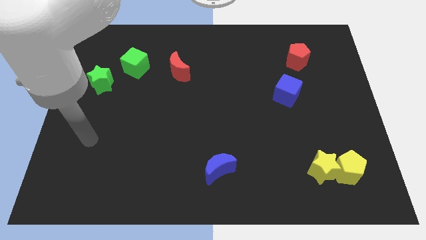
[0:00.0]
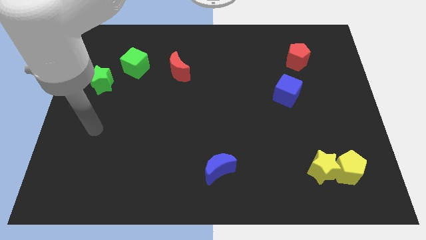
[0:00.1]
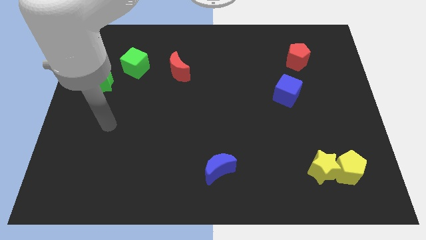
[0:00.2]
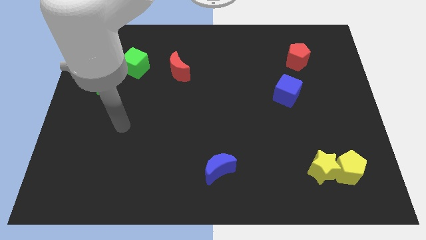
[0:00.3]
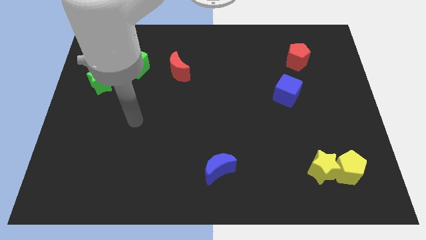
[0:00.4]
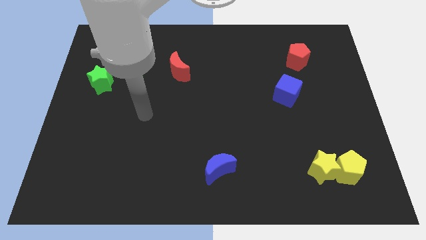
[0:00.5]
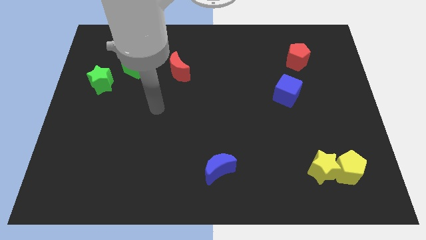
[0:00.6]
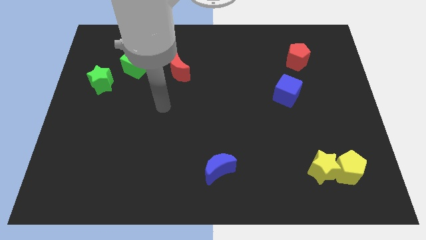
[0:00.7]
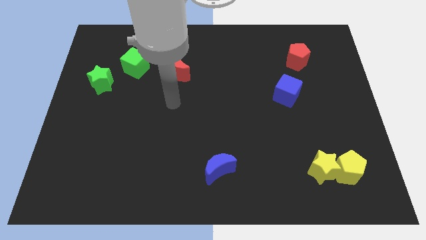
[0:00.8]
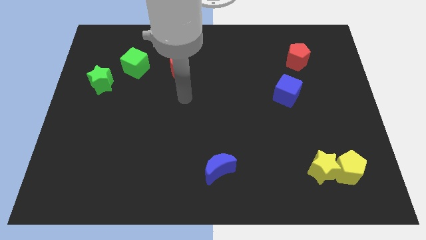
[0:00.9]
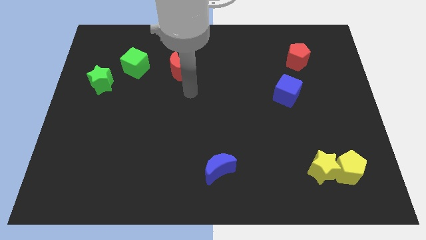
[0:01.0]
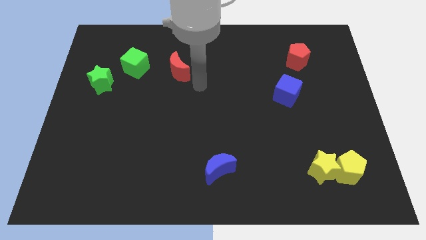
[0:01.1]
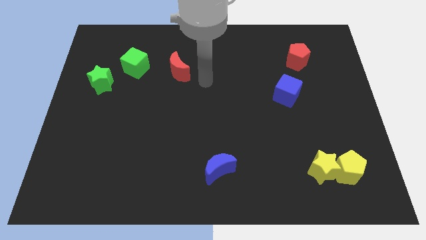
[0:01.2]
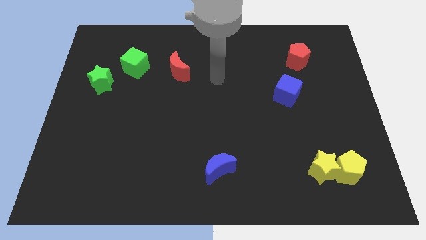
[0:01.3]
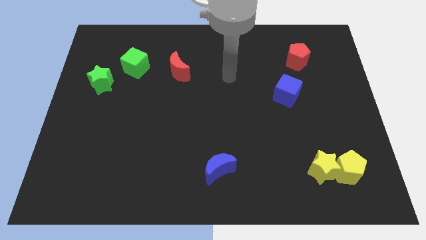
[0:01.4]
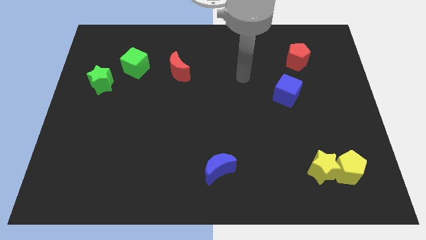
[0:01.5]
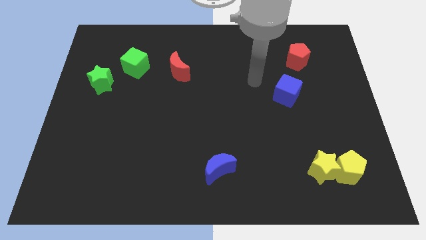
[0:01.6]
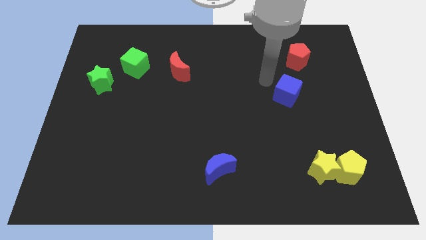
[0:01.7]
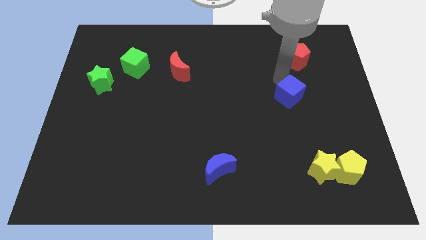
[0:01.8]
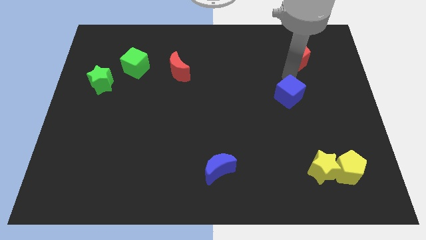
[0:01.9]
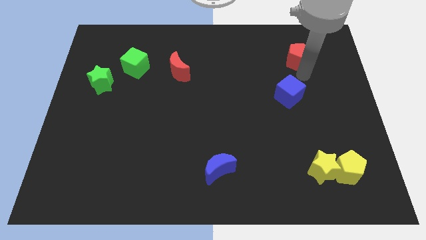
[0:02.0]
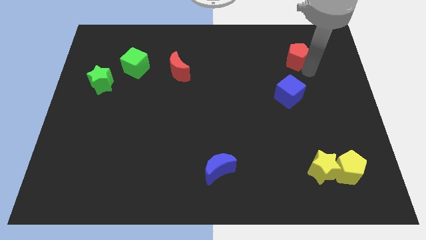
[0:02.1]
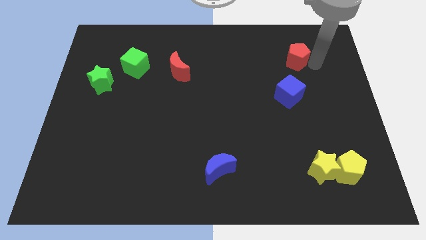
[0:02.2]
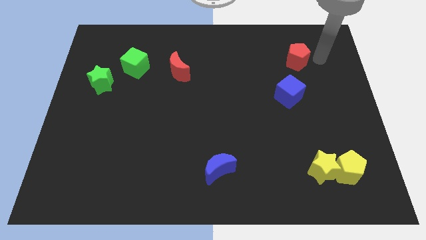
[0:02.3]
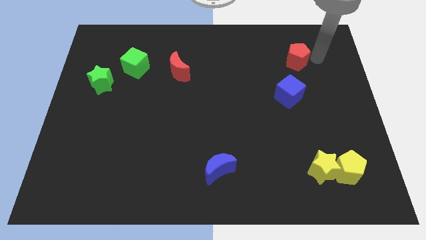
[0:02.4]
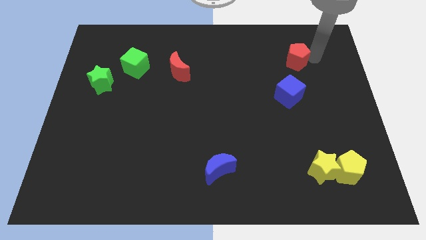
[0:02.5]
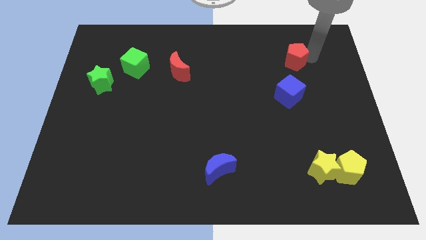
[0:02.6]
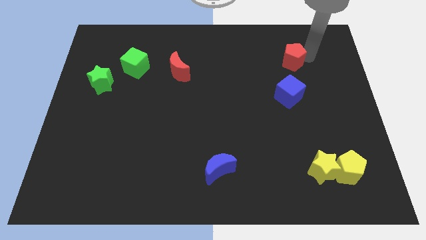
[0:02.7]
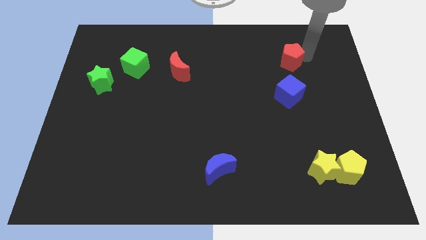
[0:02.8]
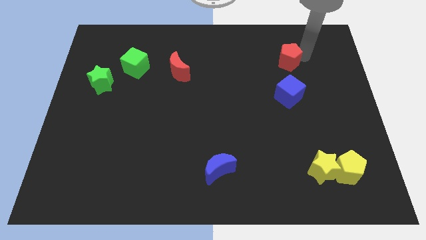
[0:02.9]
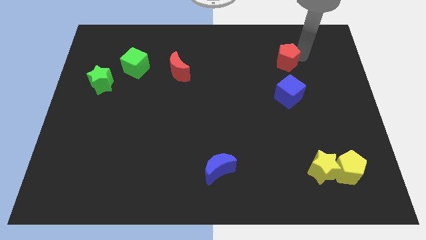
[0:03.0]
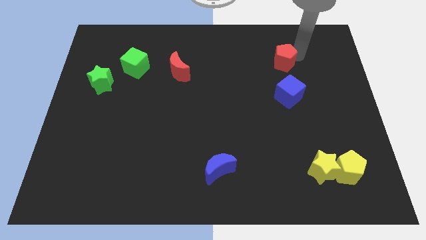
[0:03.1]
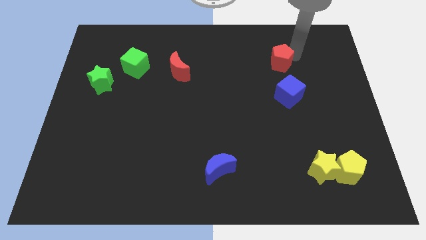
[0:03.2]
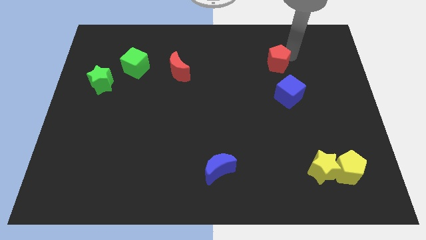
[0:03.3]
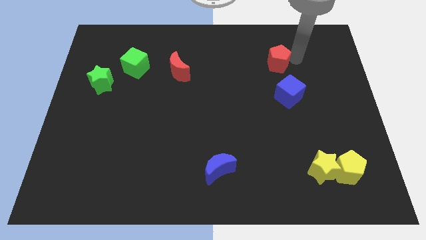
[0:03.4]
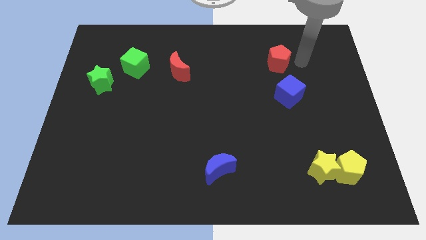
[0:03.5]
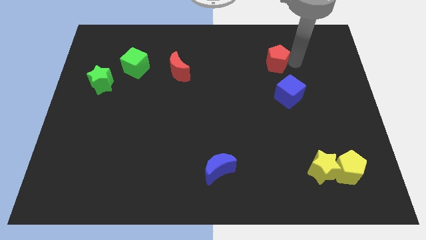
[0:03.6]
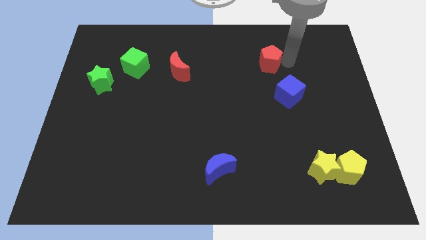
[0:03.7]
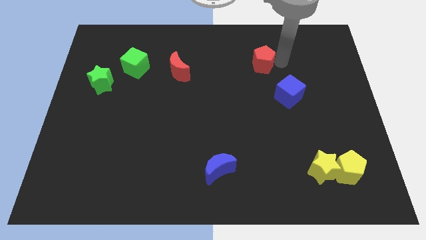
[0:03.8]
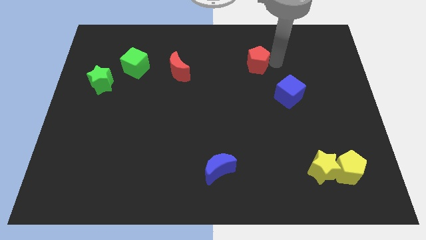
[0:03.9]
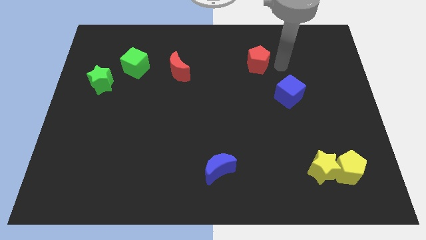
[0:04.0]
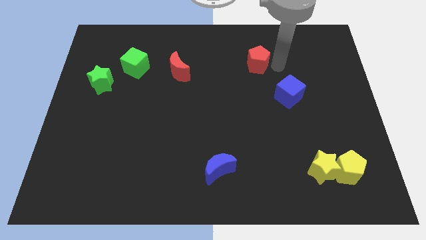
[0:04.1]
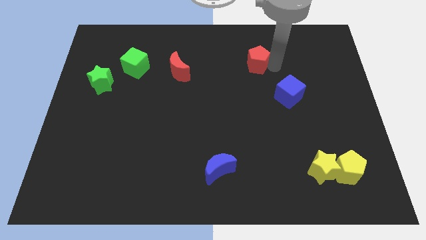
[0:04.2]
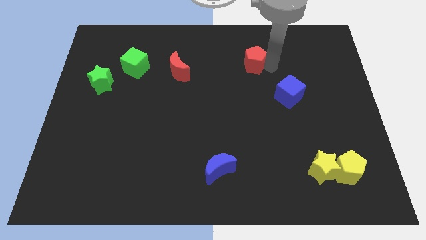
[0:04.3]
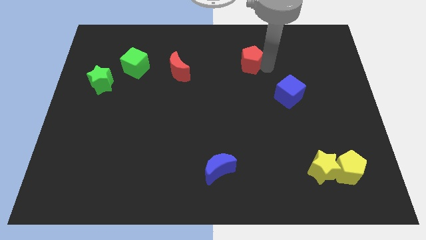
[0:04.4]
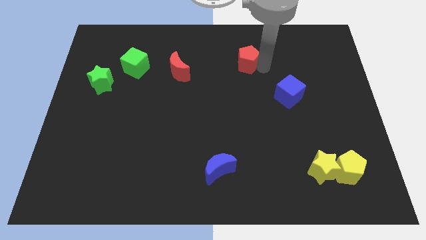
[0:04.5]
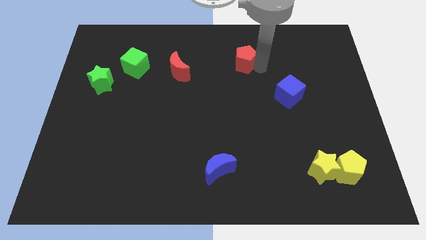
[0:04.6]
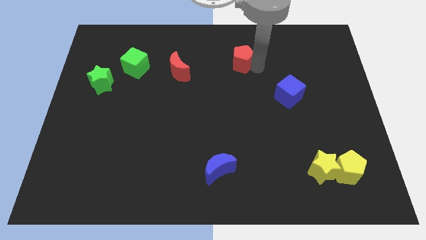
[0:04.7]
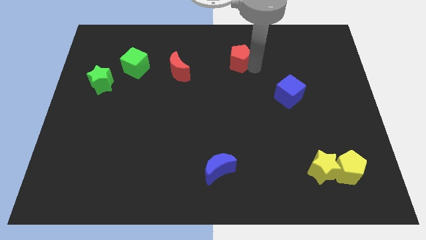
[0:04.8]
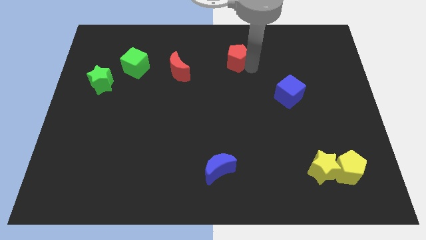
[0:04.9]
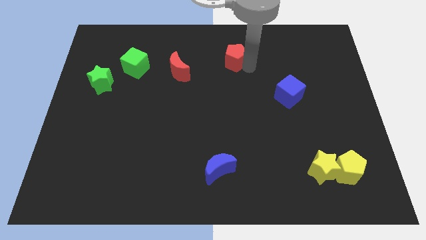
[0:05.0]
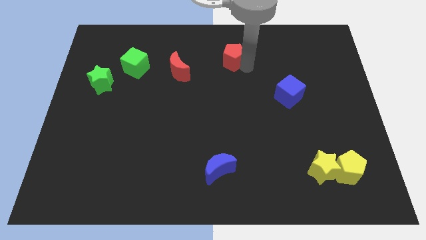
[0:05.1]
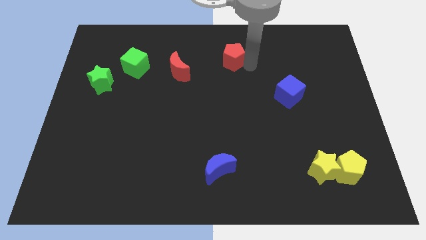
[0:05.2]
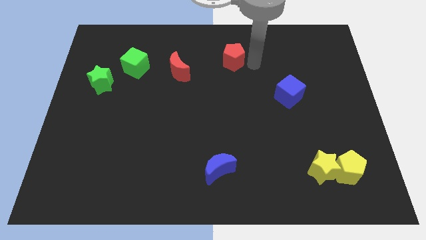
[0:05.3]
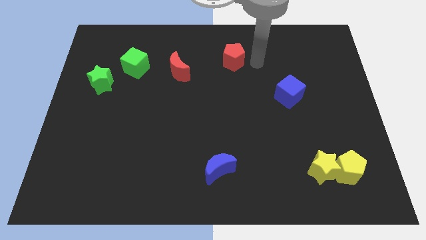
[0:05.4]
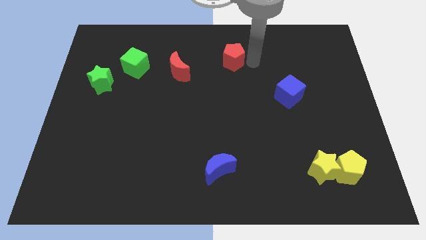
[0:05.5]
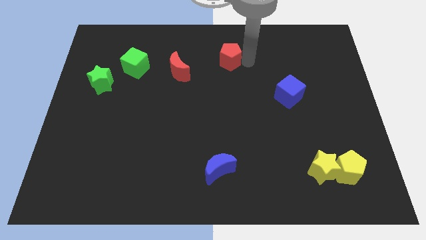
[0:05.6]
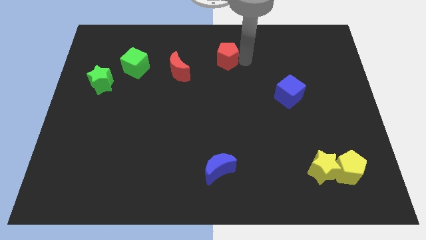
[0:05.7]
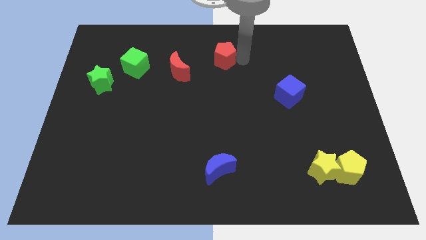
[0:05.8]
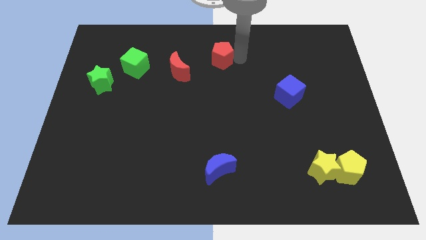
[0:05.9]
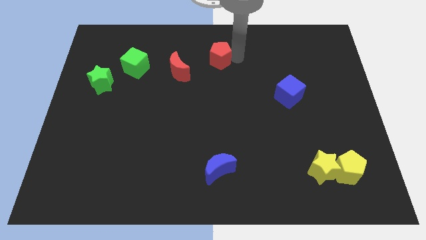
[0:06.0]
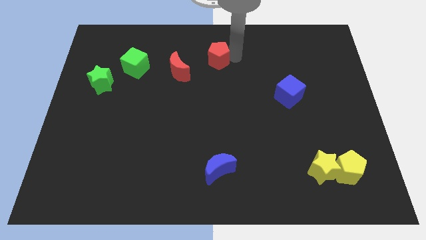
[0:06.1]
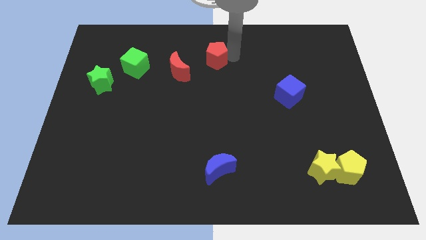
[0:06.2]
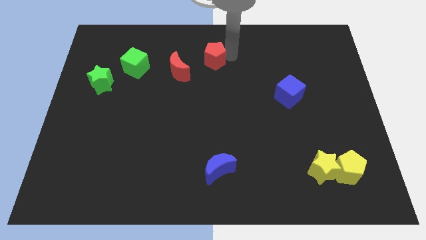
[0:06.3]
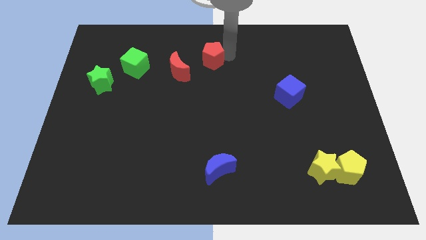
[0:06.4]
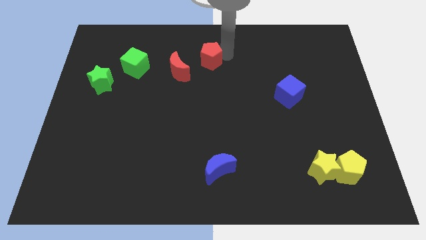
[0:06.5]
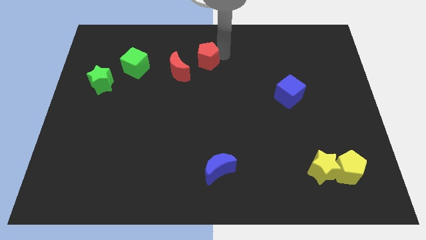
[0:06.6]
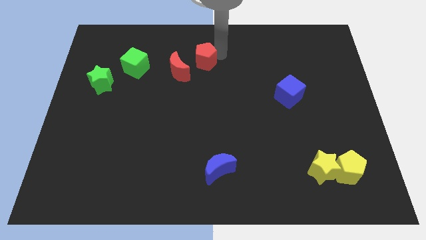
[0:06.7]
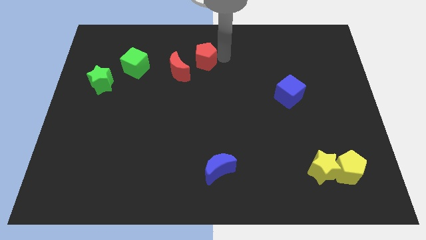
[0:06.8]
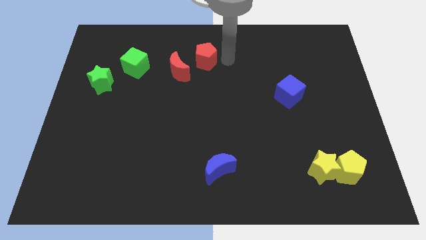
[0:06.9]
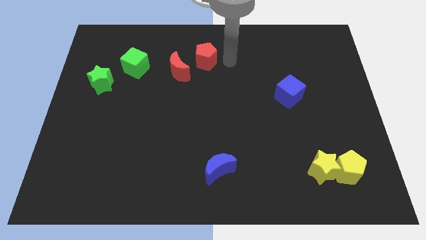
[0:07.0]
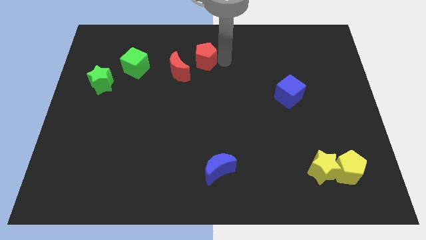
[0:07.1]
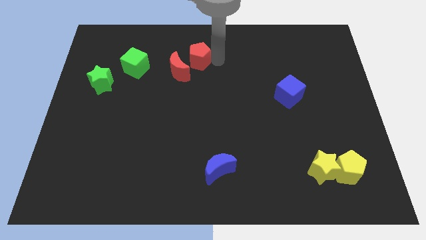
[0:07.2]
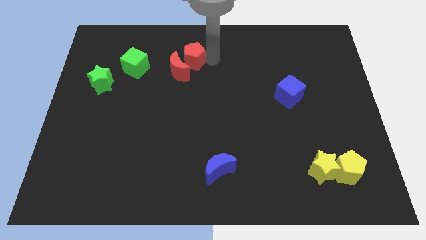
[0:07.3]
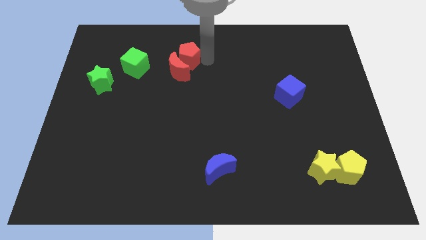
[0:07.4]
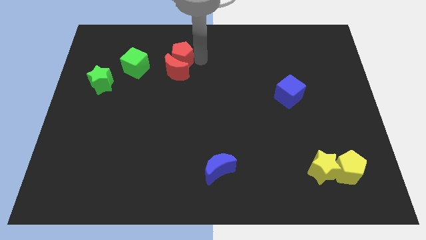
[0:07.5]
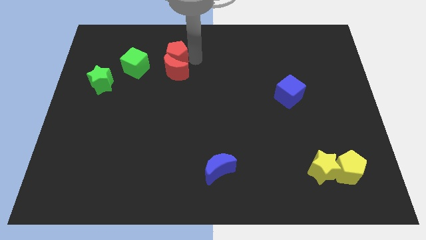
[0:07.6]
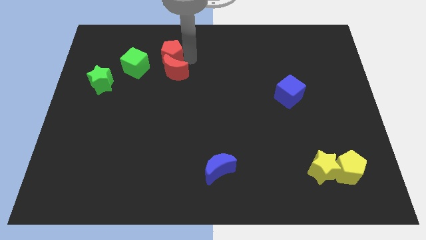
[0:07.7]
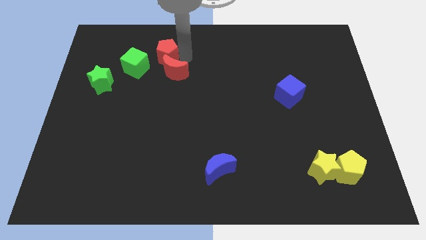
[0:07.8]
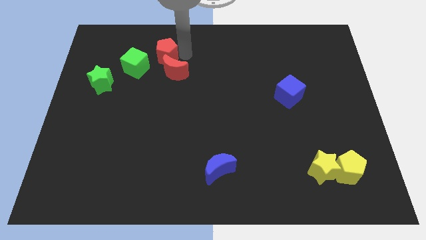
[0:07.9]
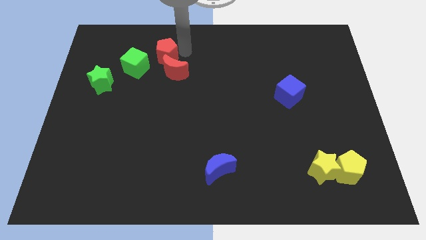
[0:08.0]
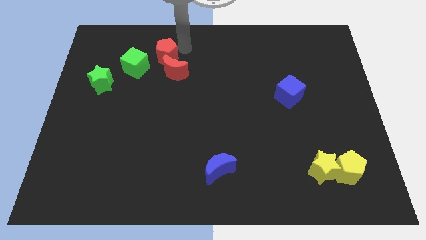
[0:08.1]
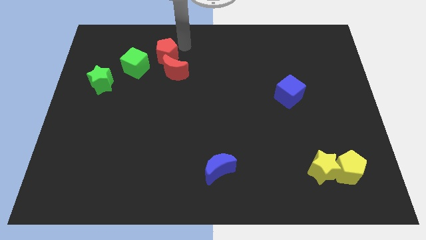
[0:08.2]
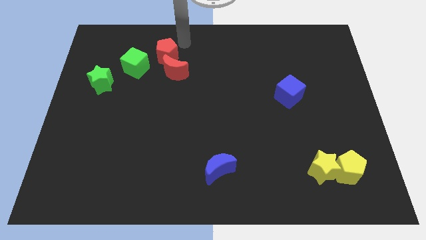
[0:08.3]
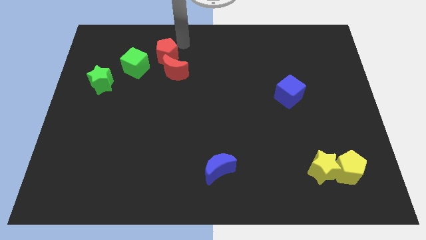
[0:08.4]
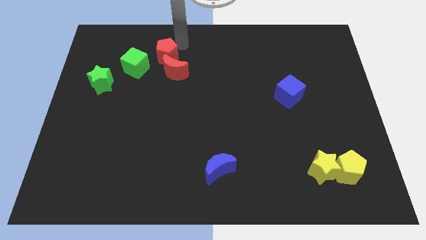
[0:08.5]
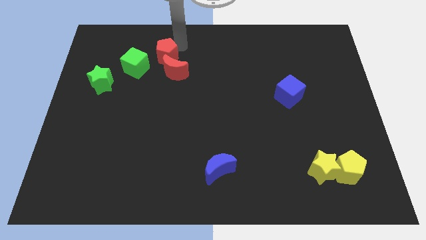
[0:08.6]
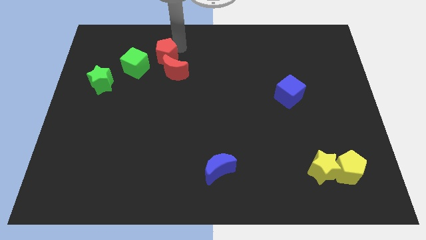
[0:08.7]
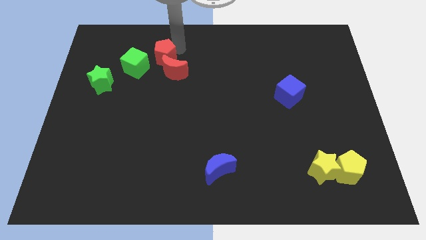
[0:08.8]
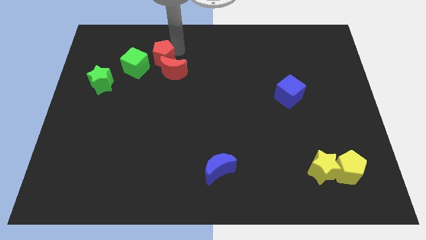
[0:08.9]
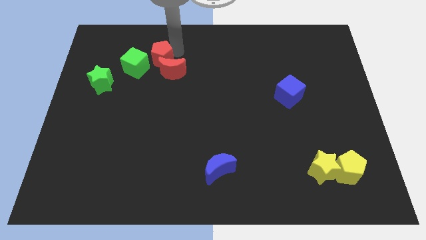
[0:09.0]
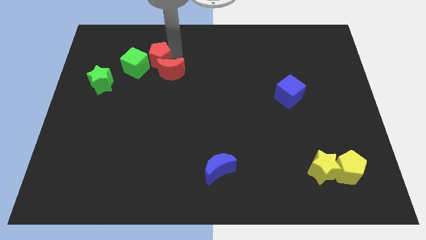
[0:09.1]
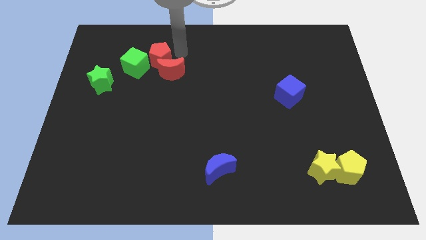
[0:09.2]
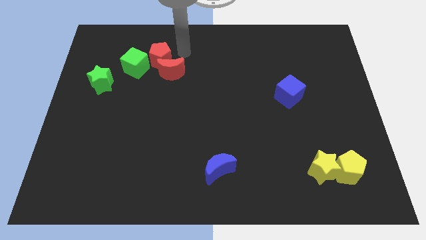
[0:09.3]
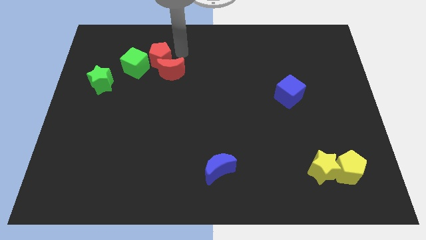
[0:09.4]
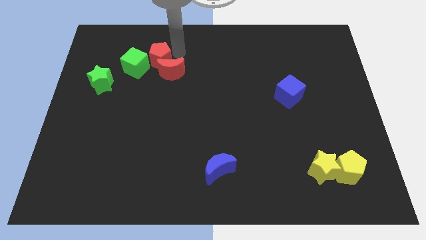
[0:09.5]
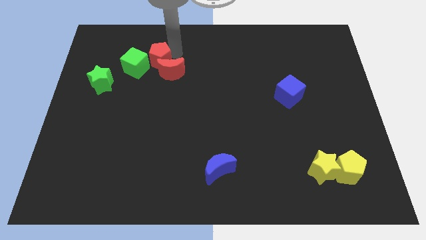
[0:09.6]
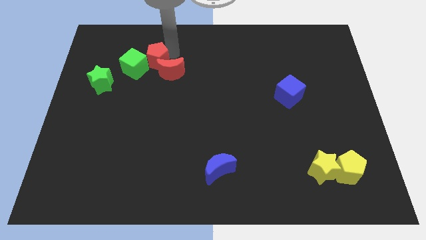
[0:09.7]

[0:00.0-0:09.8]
put the red pentagon close to the green cube
